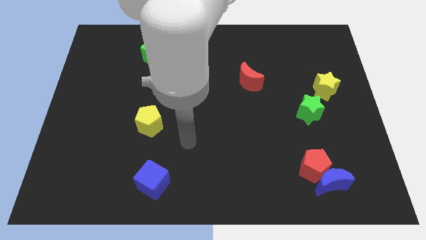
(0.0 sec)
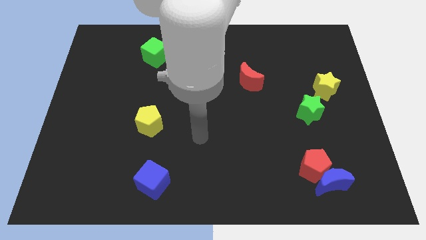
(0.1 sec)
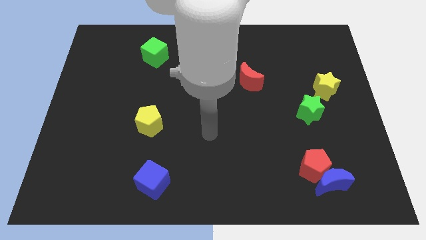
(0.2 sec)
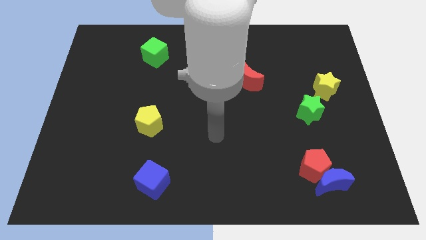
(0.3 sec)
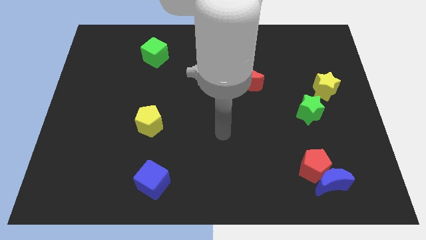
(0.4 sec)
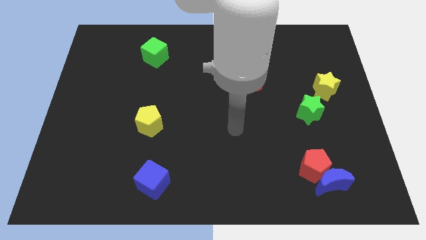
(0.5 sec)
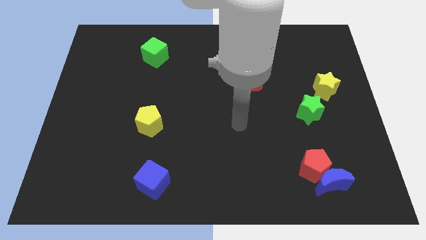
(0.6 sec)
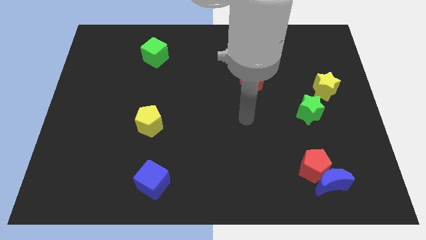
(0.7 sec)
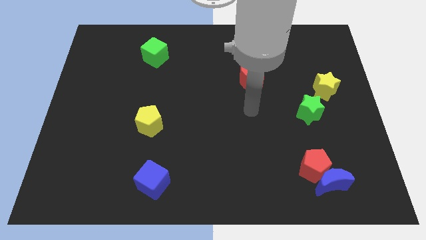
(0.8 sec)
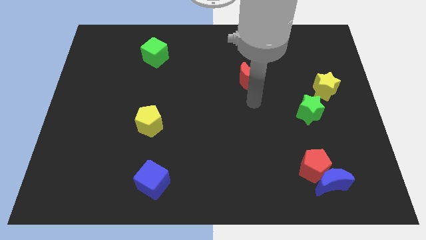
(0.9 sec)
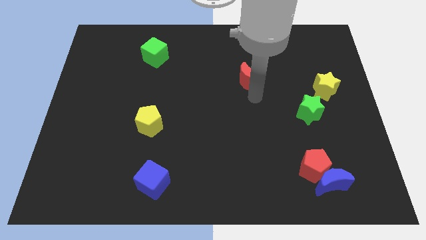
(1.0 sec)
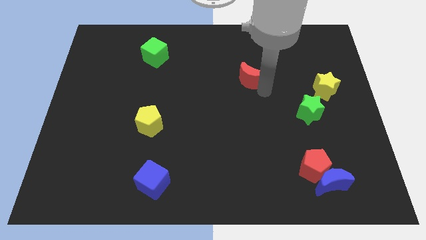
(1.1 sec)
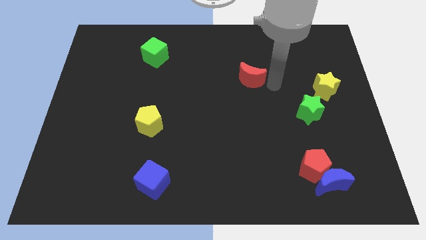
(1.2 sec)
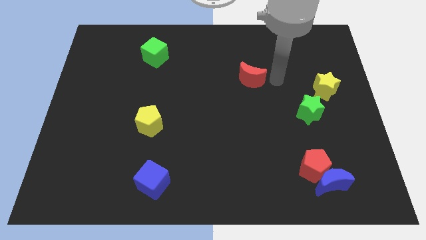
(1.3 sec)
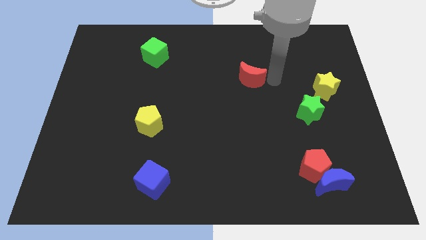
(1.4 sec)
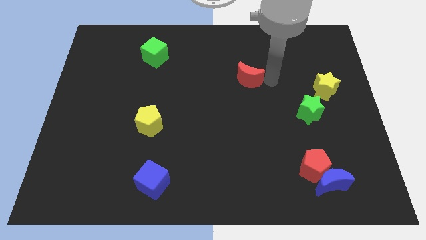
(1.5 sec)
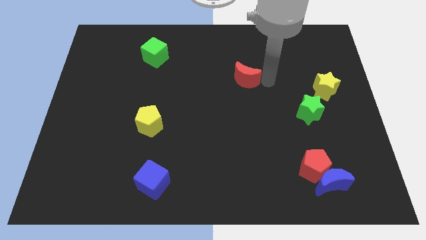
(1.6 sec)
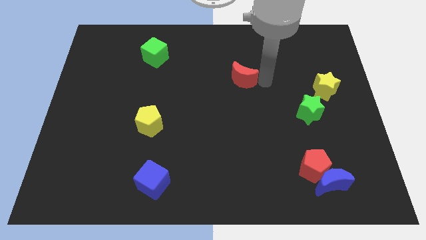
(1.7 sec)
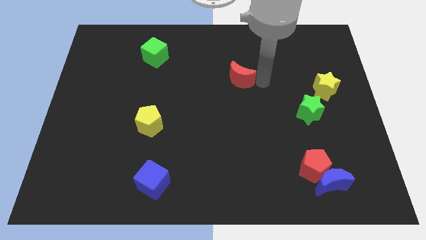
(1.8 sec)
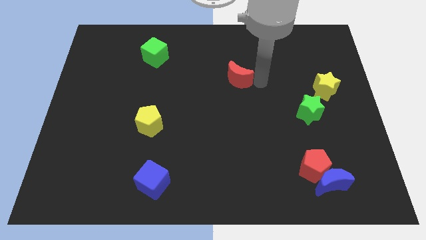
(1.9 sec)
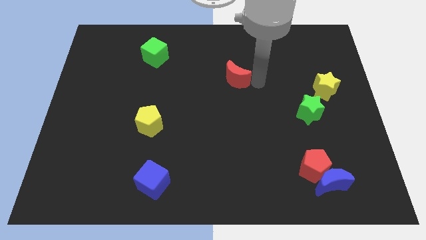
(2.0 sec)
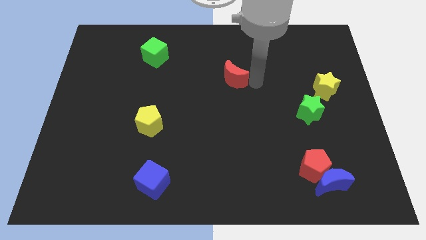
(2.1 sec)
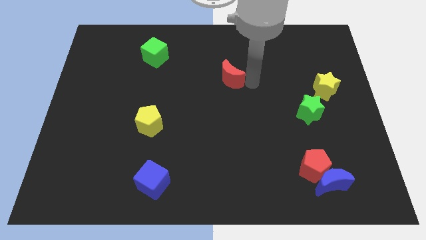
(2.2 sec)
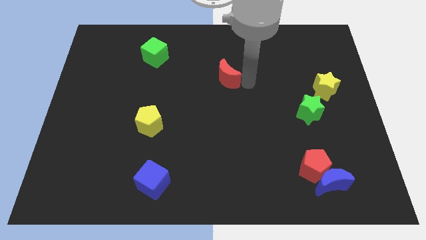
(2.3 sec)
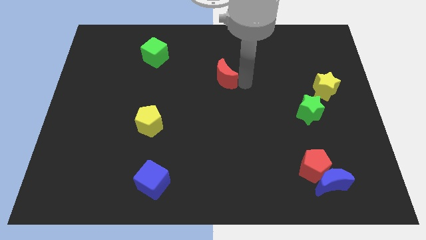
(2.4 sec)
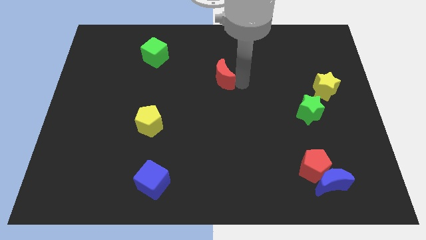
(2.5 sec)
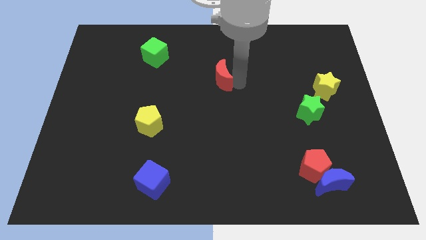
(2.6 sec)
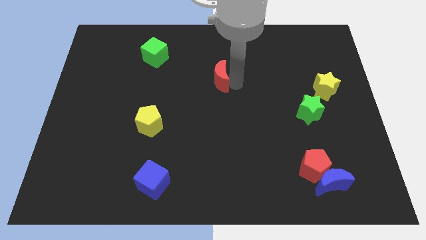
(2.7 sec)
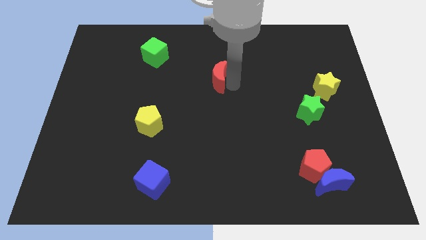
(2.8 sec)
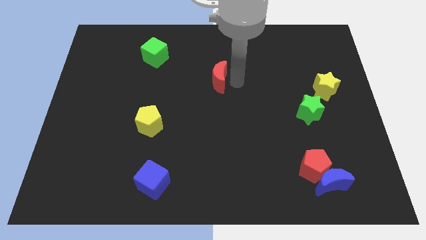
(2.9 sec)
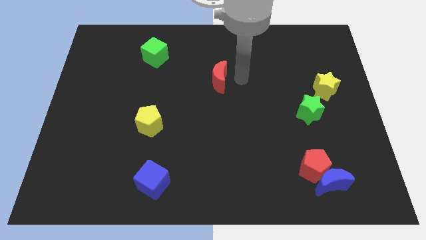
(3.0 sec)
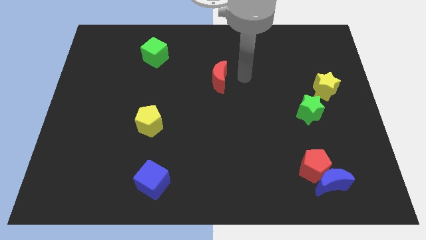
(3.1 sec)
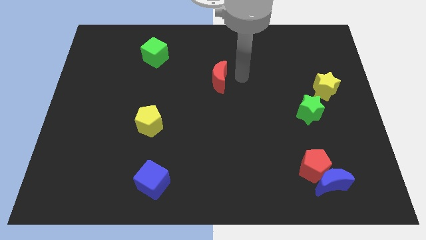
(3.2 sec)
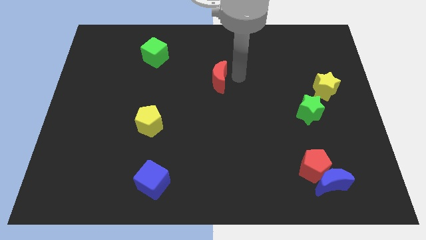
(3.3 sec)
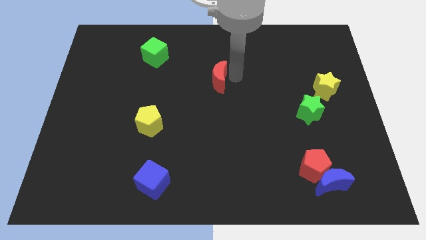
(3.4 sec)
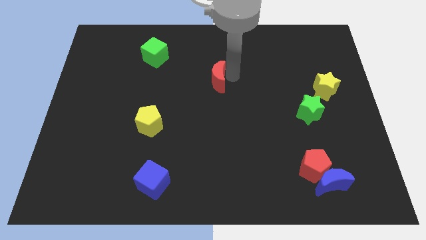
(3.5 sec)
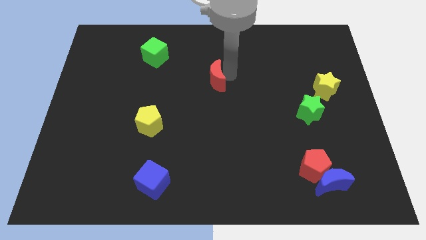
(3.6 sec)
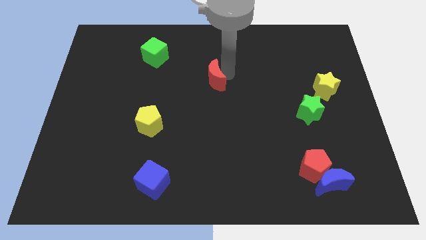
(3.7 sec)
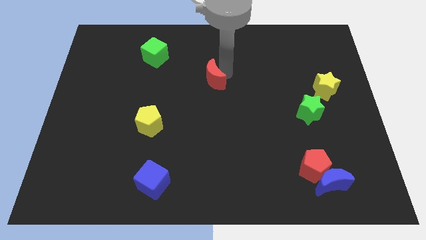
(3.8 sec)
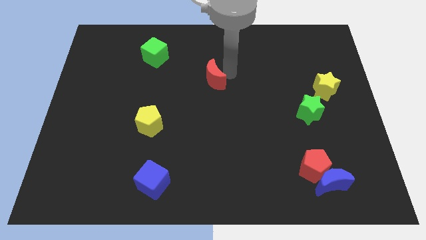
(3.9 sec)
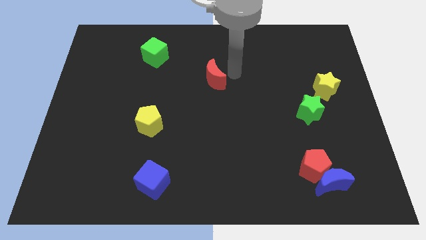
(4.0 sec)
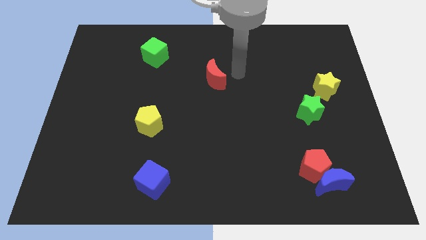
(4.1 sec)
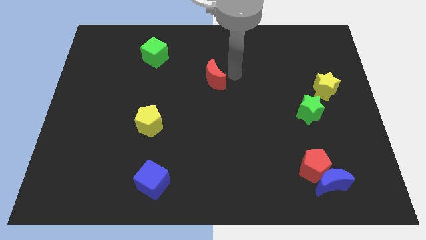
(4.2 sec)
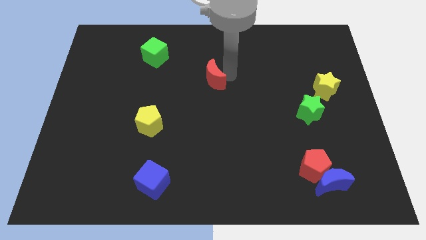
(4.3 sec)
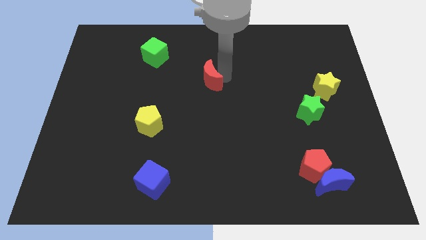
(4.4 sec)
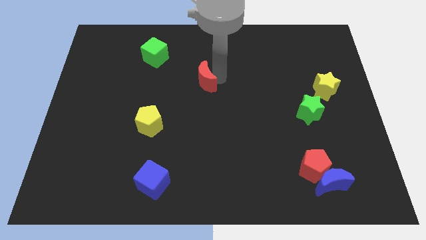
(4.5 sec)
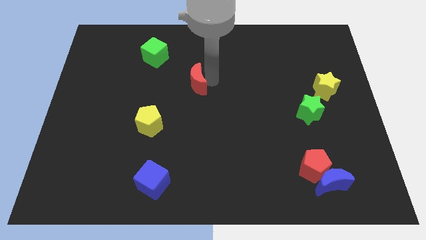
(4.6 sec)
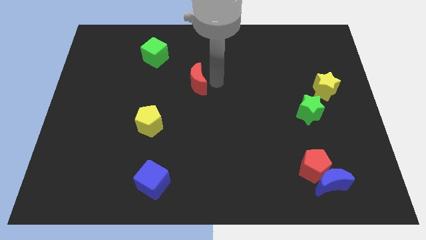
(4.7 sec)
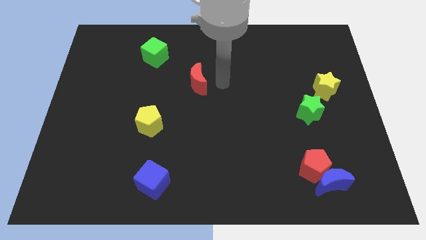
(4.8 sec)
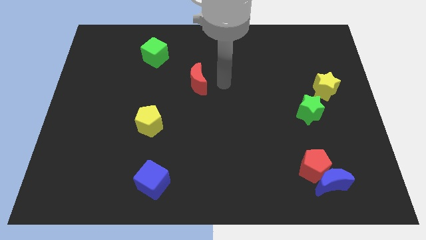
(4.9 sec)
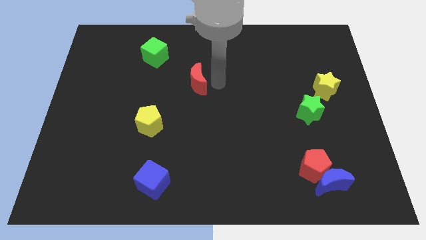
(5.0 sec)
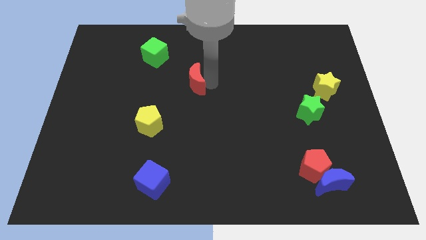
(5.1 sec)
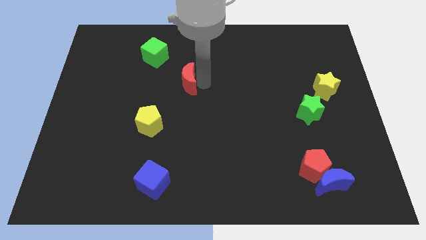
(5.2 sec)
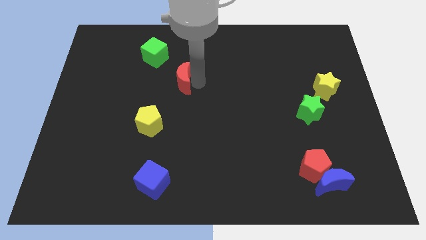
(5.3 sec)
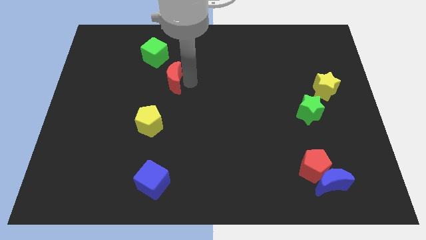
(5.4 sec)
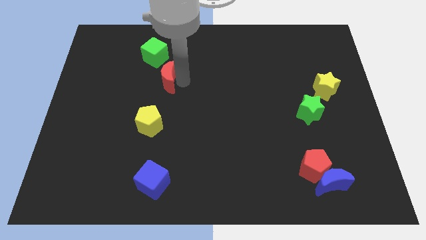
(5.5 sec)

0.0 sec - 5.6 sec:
push the red moon left

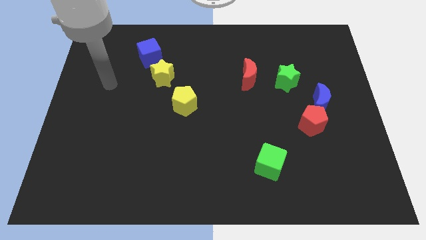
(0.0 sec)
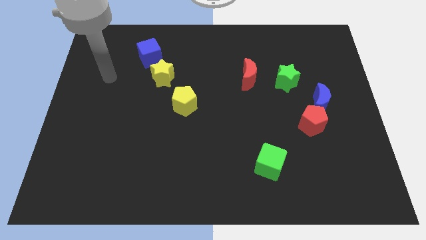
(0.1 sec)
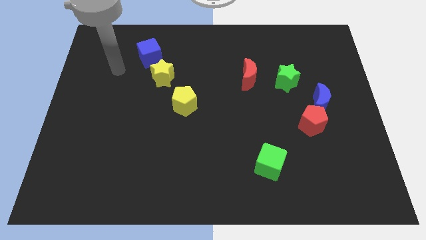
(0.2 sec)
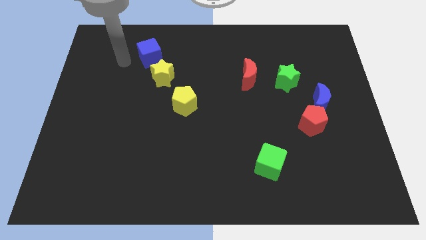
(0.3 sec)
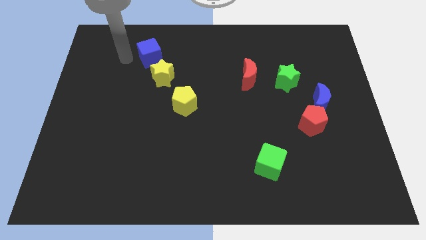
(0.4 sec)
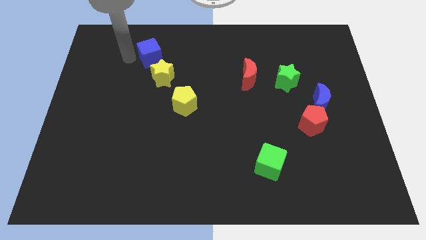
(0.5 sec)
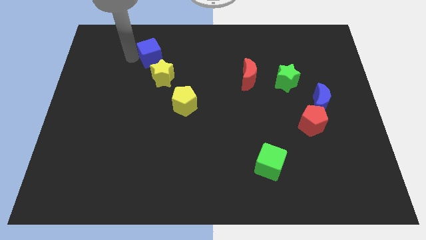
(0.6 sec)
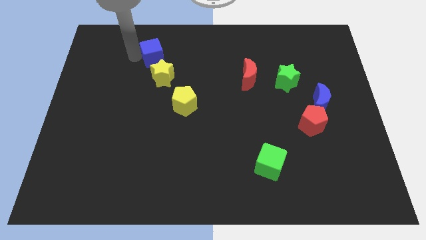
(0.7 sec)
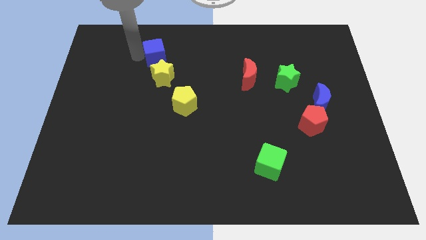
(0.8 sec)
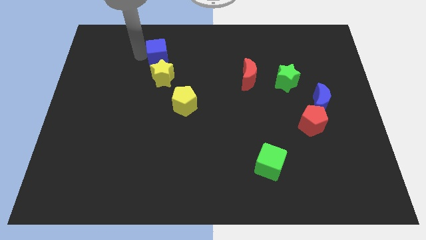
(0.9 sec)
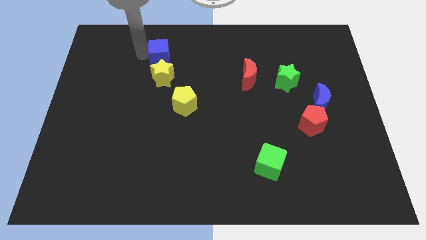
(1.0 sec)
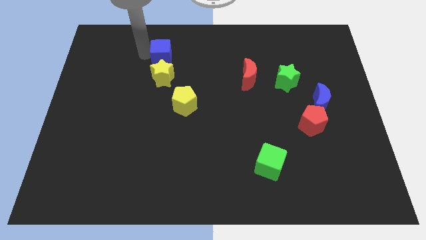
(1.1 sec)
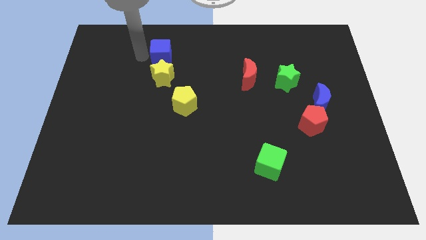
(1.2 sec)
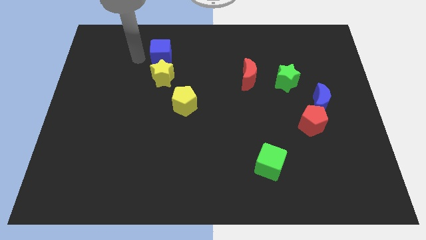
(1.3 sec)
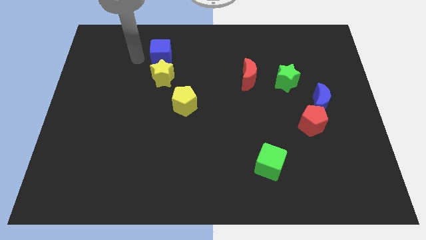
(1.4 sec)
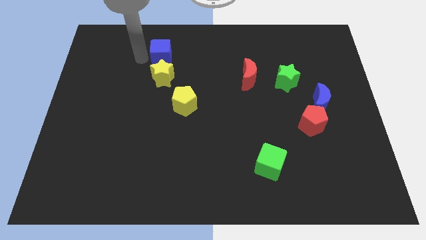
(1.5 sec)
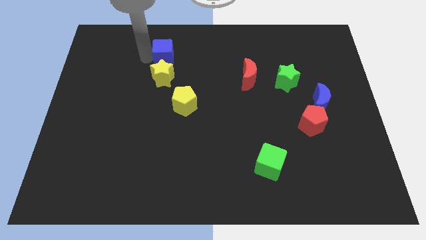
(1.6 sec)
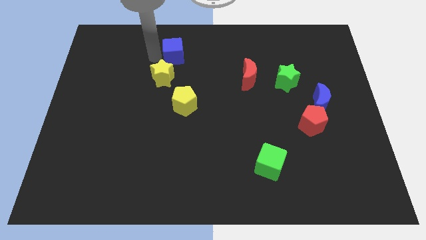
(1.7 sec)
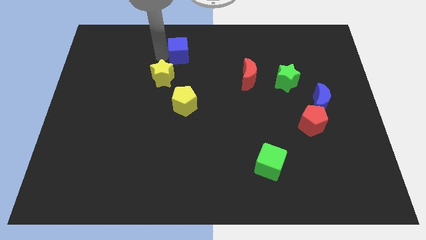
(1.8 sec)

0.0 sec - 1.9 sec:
push the blue cube a bit to the right

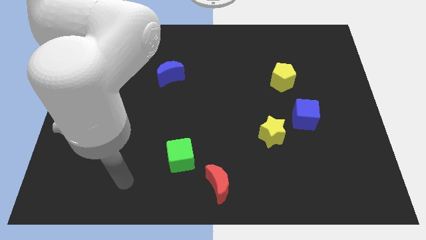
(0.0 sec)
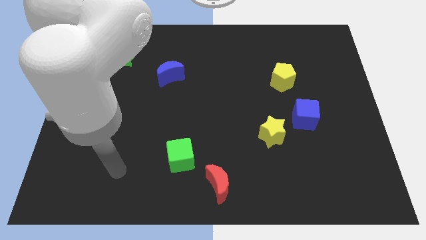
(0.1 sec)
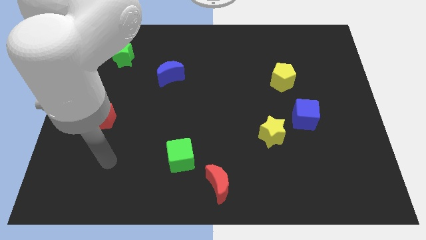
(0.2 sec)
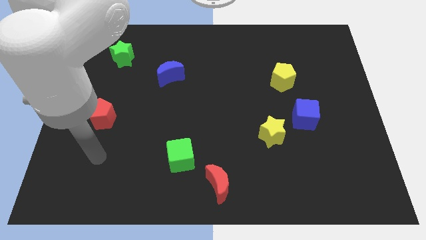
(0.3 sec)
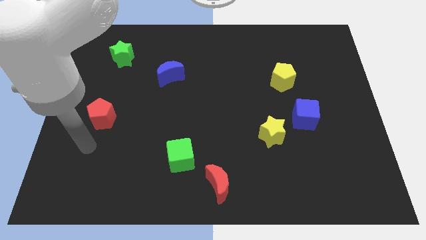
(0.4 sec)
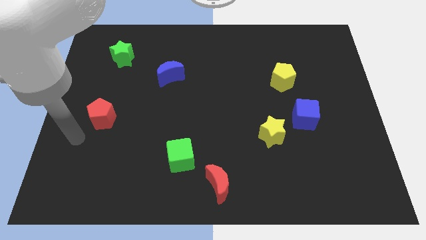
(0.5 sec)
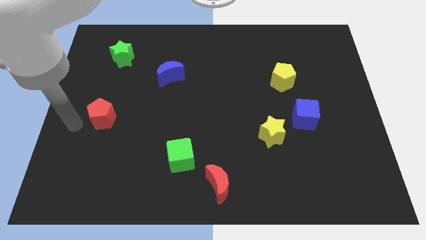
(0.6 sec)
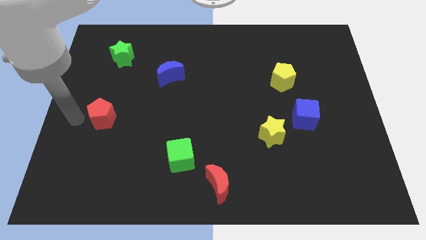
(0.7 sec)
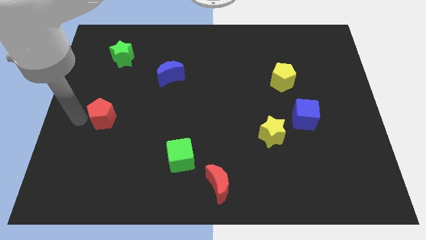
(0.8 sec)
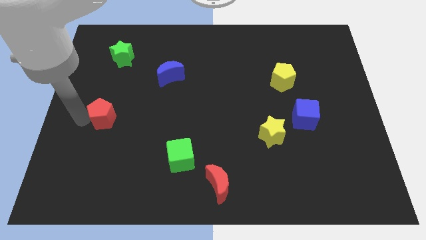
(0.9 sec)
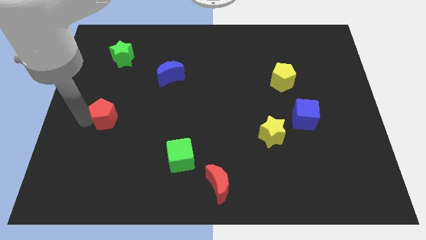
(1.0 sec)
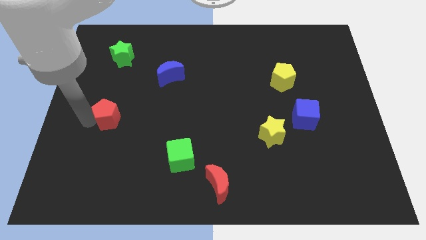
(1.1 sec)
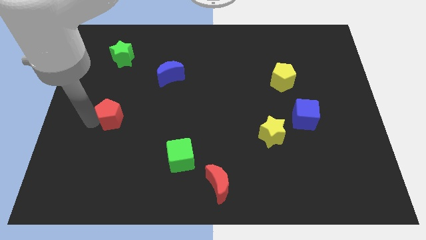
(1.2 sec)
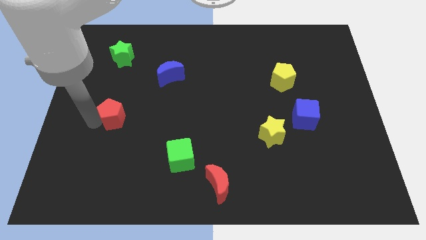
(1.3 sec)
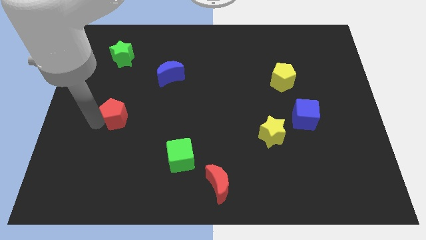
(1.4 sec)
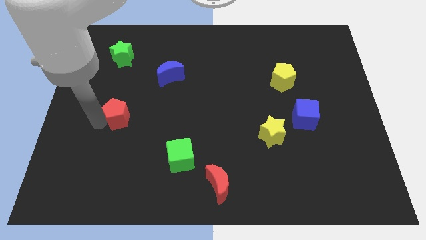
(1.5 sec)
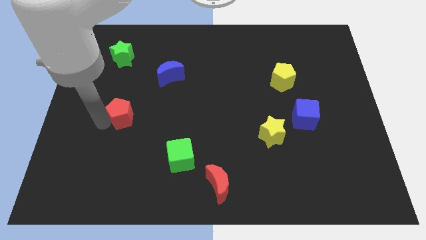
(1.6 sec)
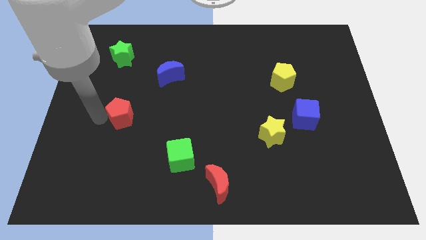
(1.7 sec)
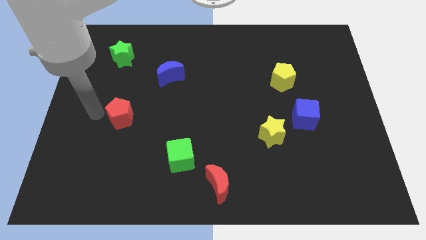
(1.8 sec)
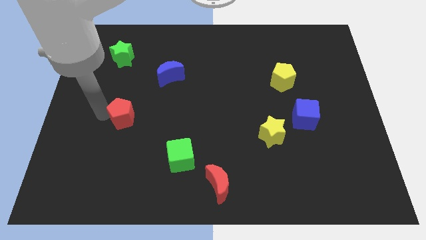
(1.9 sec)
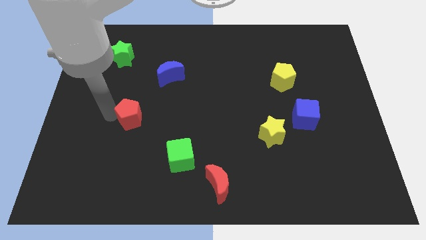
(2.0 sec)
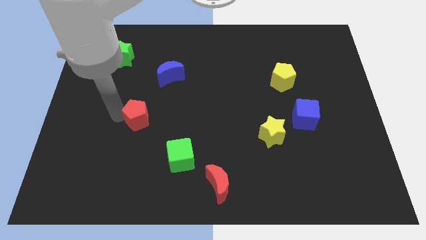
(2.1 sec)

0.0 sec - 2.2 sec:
push the red pentagon to the right somewhat
